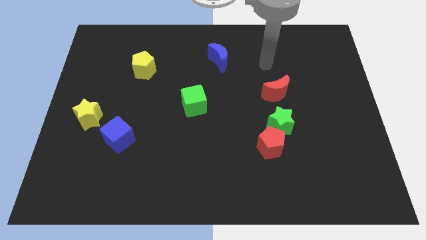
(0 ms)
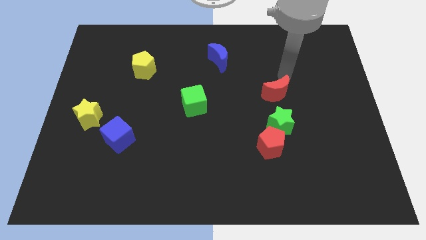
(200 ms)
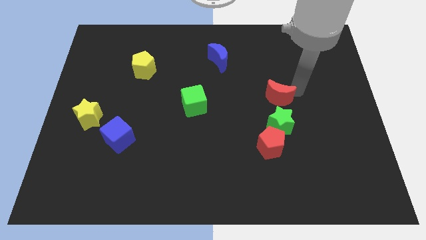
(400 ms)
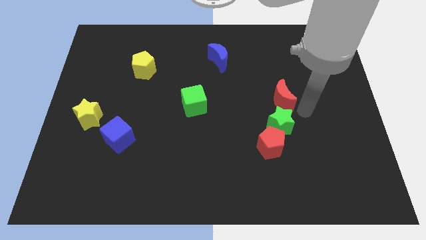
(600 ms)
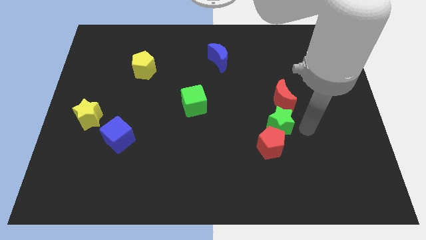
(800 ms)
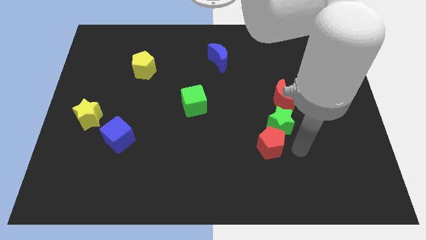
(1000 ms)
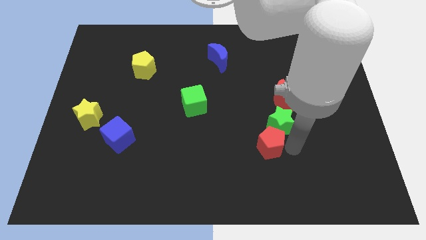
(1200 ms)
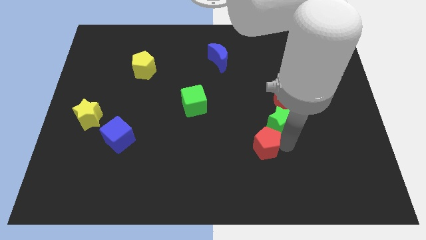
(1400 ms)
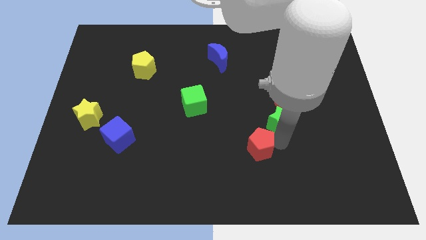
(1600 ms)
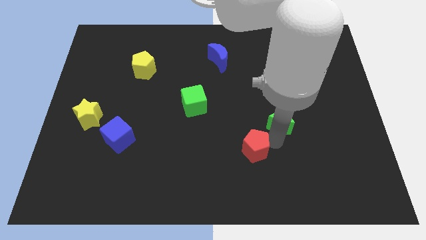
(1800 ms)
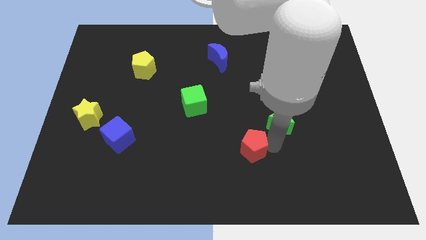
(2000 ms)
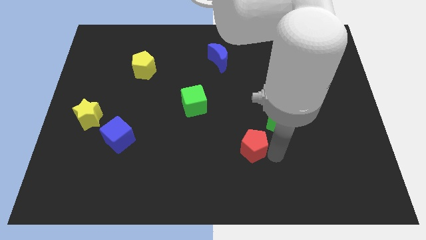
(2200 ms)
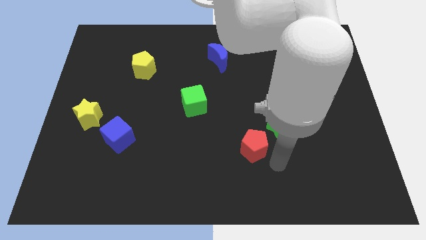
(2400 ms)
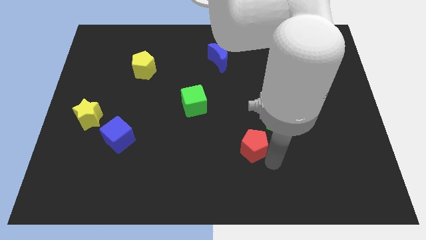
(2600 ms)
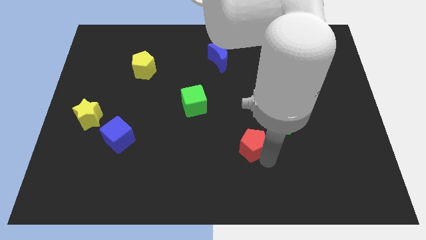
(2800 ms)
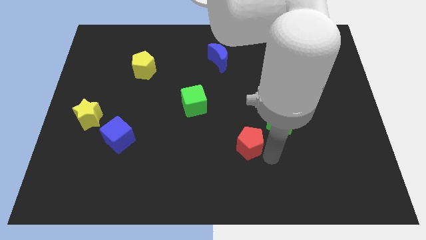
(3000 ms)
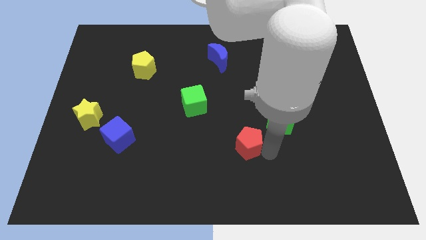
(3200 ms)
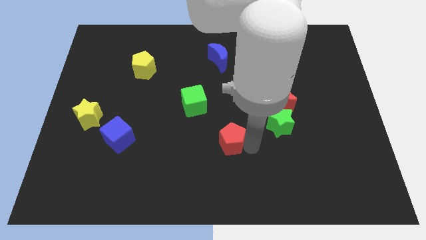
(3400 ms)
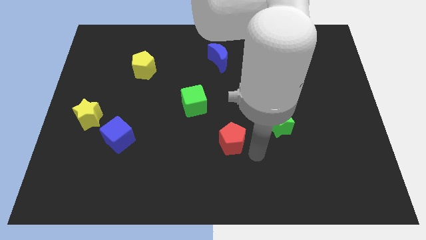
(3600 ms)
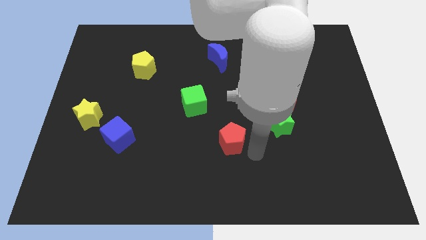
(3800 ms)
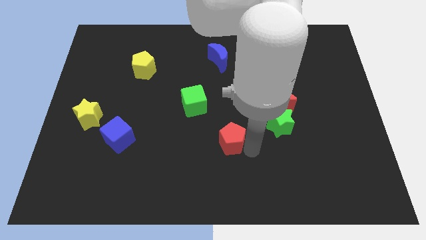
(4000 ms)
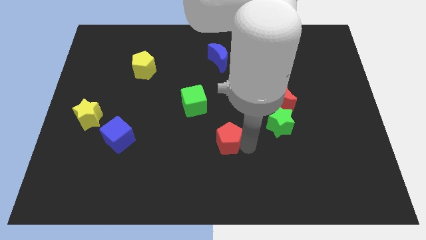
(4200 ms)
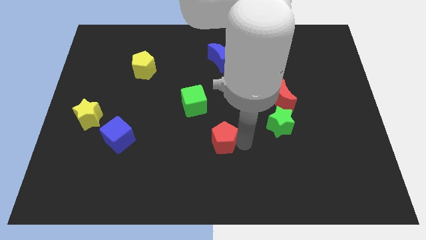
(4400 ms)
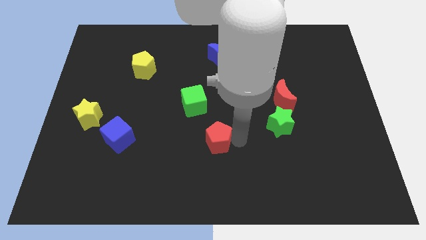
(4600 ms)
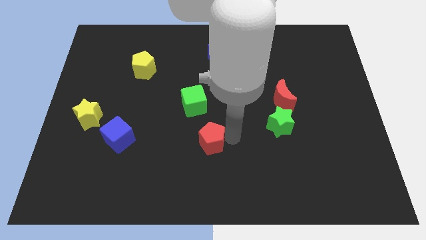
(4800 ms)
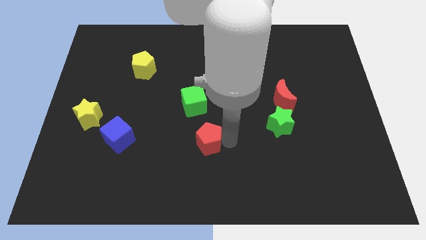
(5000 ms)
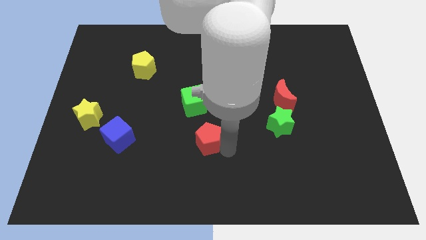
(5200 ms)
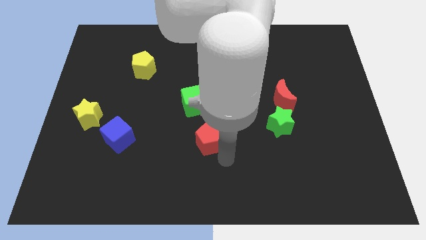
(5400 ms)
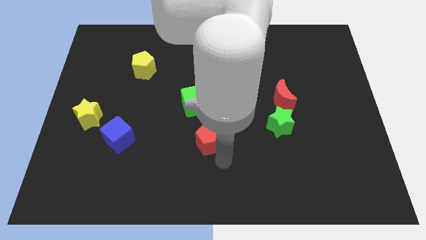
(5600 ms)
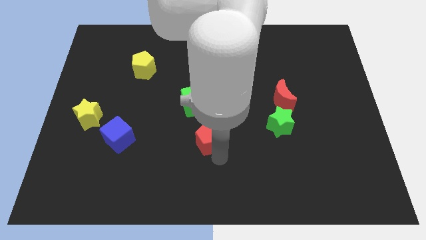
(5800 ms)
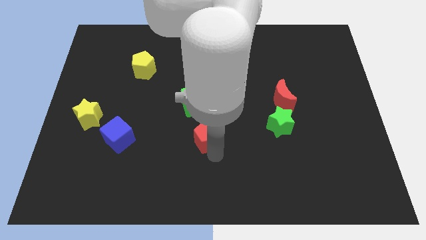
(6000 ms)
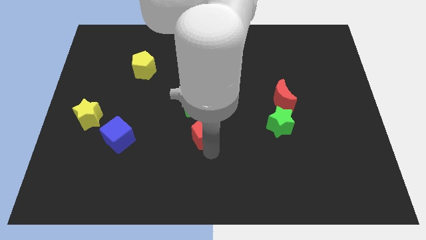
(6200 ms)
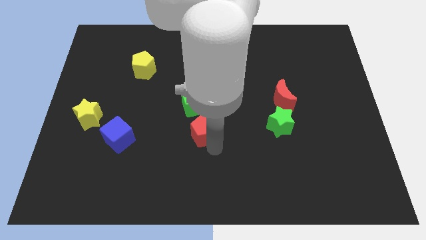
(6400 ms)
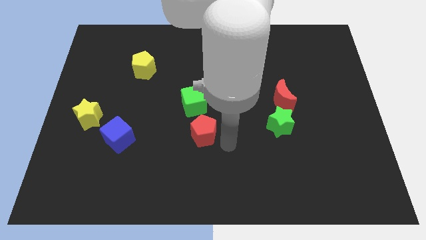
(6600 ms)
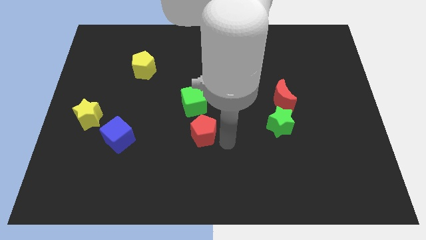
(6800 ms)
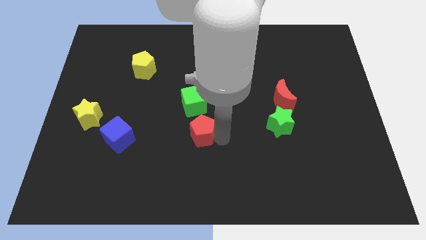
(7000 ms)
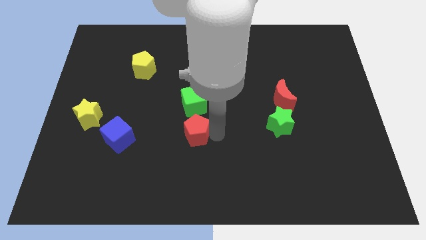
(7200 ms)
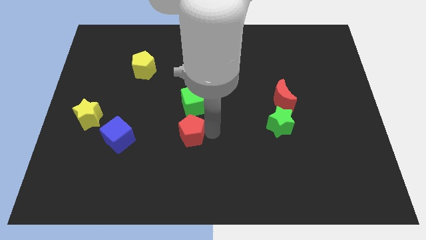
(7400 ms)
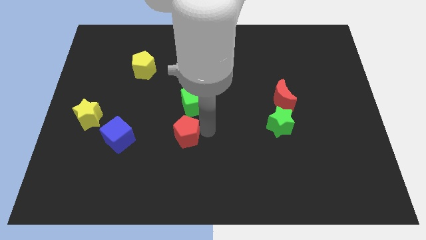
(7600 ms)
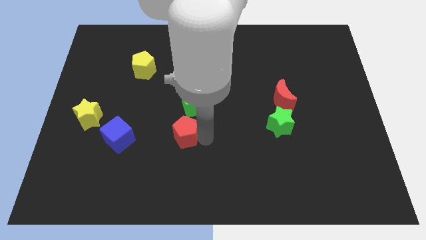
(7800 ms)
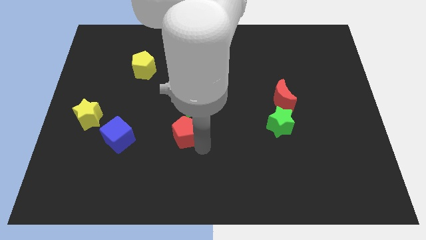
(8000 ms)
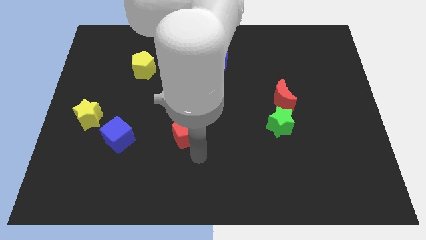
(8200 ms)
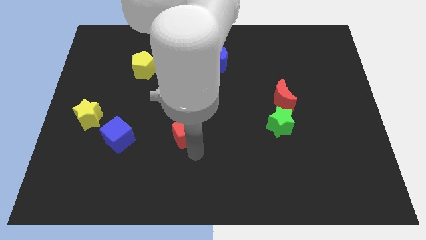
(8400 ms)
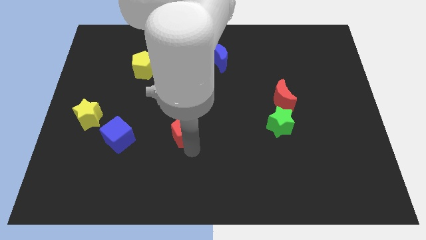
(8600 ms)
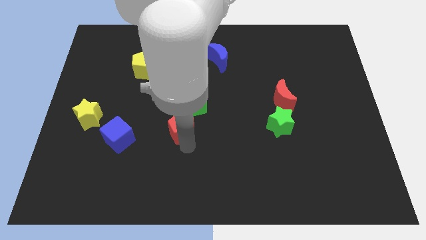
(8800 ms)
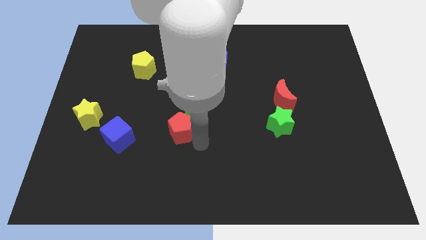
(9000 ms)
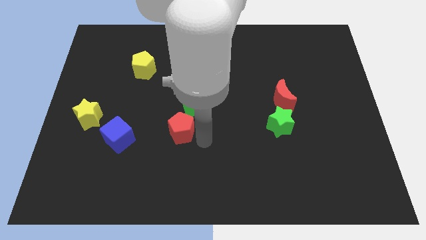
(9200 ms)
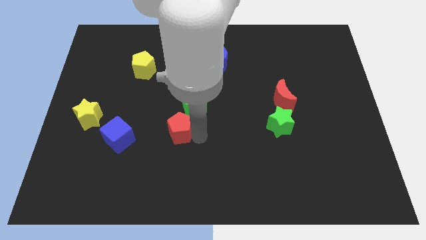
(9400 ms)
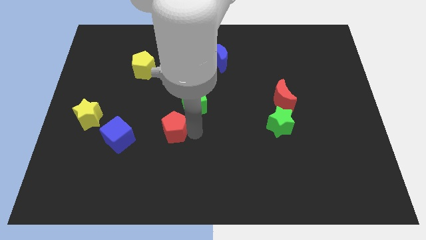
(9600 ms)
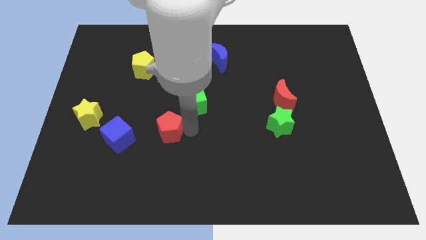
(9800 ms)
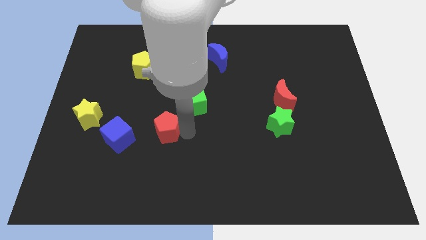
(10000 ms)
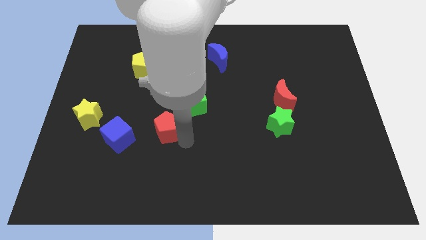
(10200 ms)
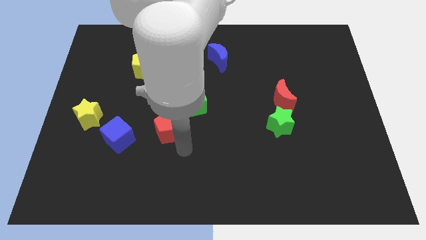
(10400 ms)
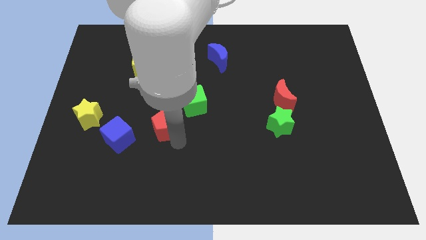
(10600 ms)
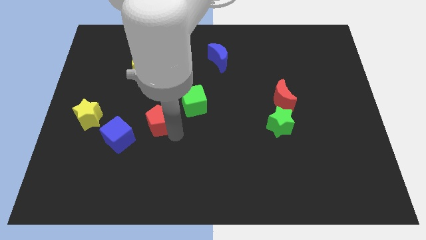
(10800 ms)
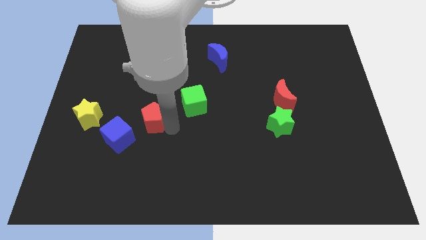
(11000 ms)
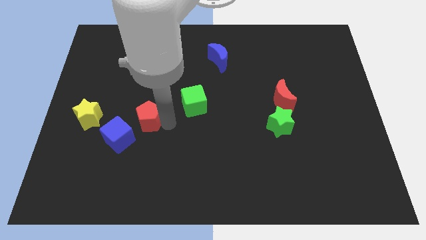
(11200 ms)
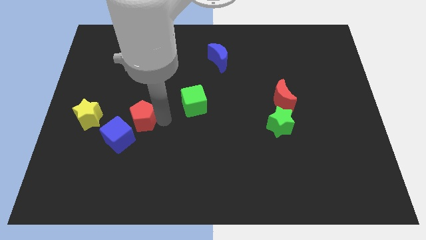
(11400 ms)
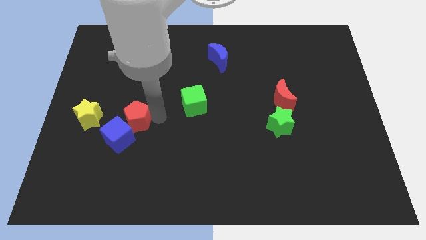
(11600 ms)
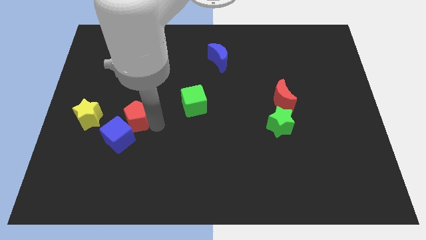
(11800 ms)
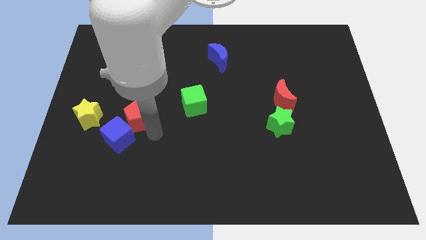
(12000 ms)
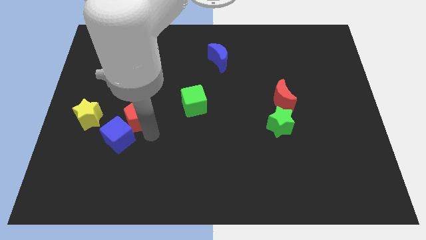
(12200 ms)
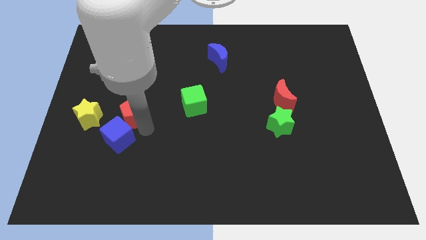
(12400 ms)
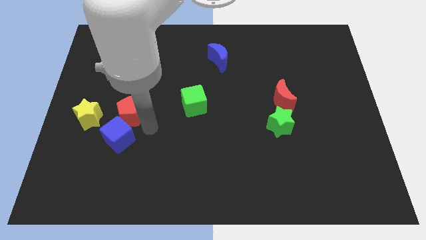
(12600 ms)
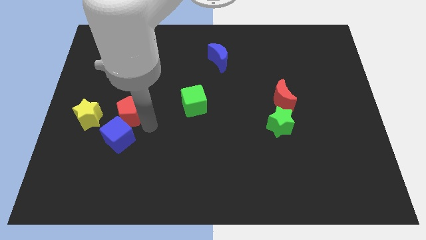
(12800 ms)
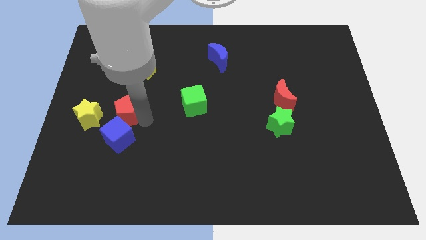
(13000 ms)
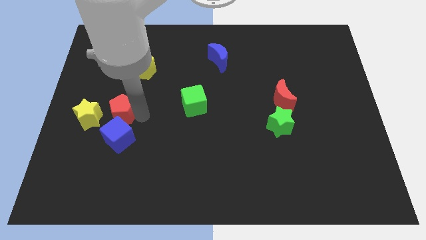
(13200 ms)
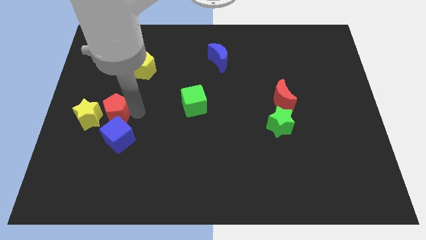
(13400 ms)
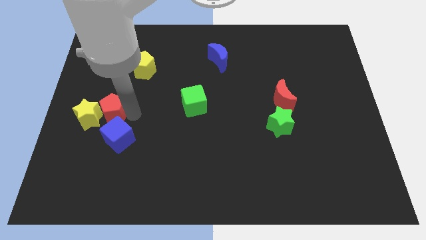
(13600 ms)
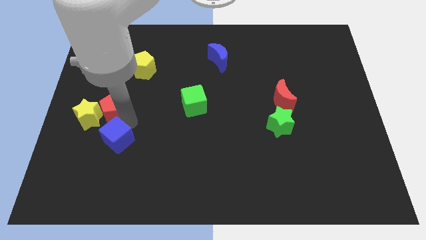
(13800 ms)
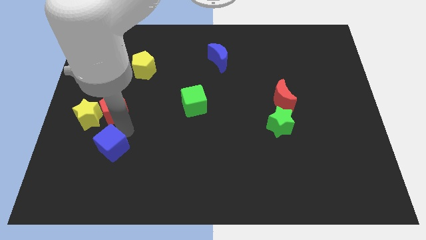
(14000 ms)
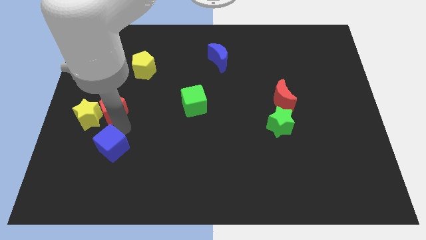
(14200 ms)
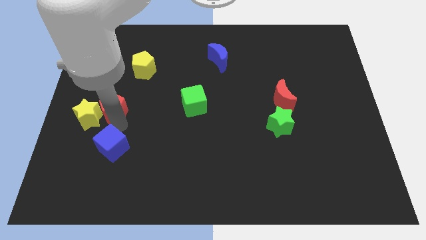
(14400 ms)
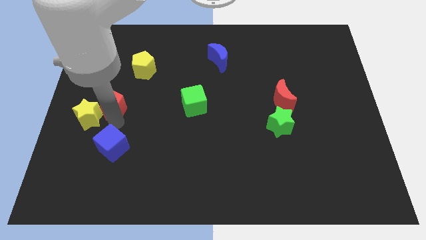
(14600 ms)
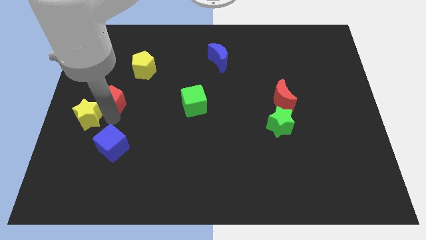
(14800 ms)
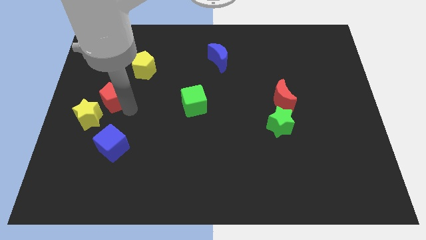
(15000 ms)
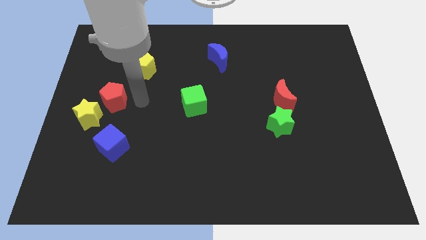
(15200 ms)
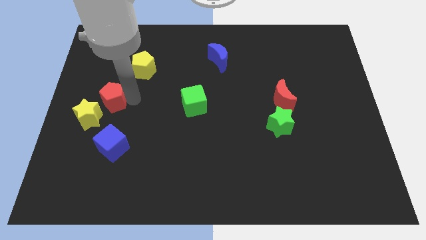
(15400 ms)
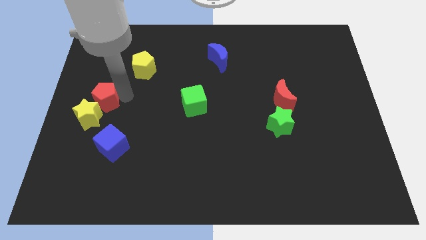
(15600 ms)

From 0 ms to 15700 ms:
put the red pentagon to the center left
